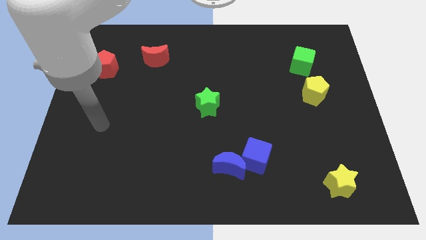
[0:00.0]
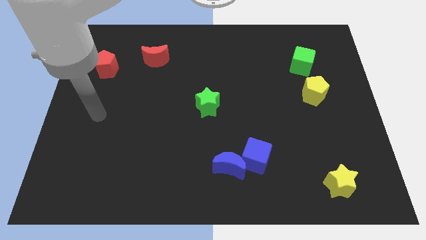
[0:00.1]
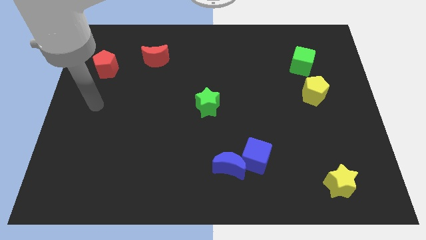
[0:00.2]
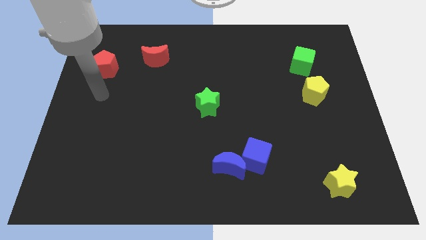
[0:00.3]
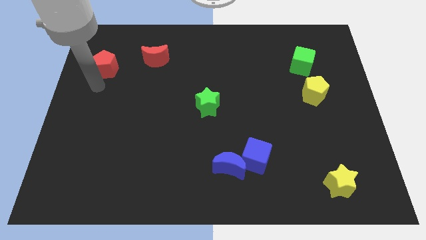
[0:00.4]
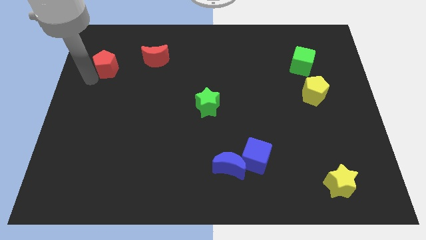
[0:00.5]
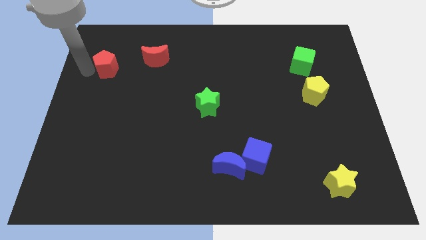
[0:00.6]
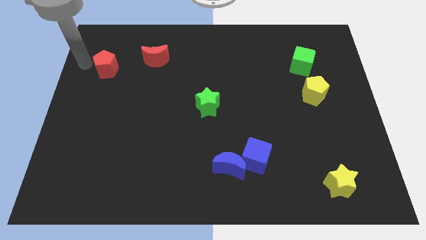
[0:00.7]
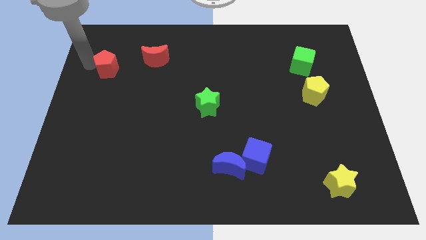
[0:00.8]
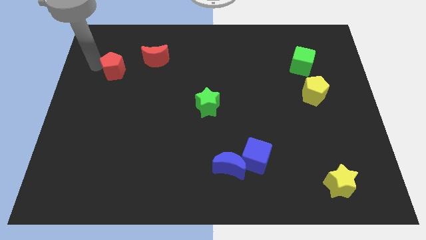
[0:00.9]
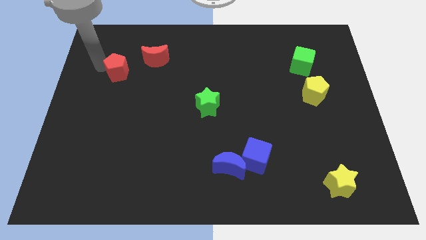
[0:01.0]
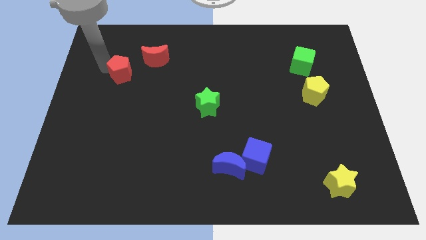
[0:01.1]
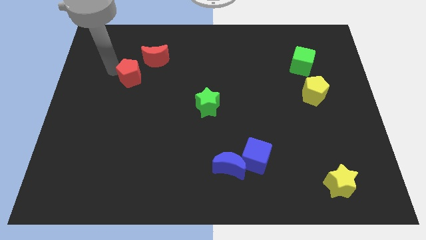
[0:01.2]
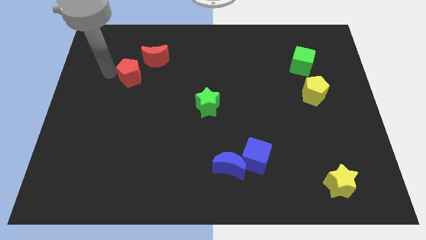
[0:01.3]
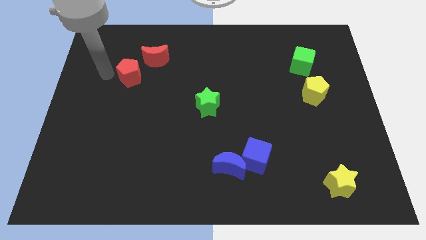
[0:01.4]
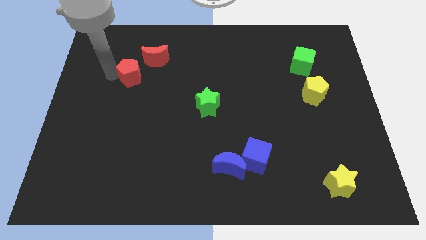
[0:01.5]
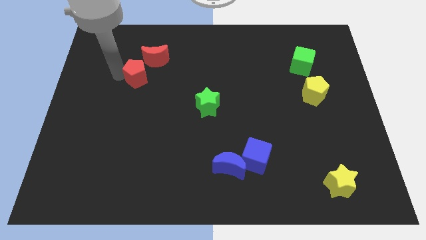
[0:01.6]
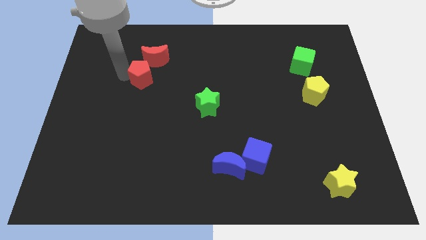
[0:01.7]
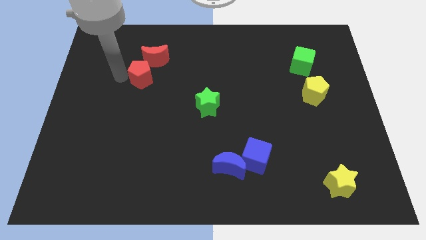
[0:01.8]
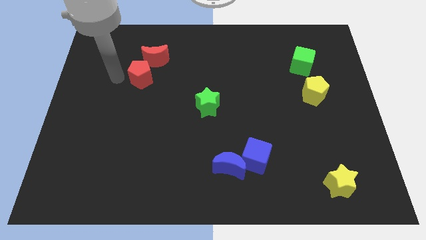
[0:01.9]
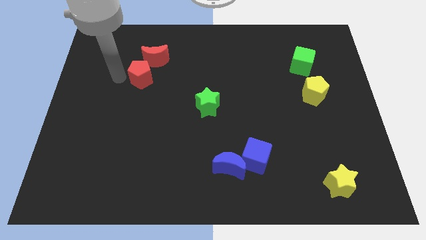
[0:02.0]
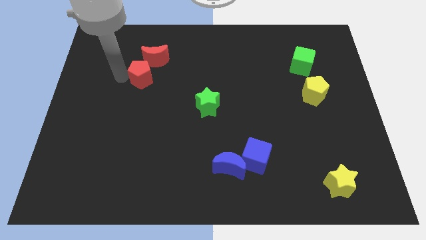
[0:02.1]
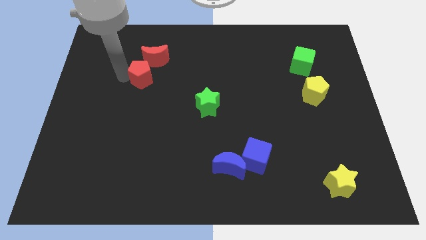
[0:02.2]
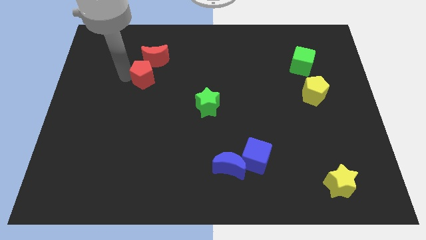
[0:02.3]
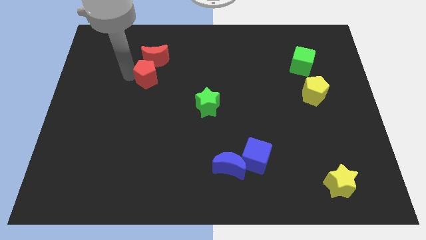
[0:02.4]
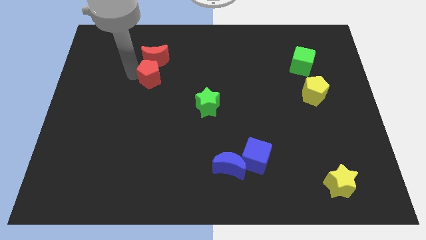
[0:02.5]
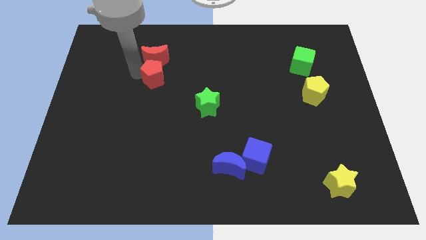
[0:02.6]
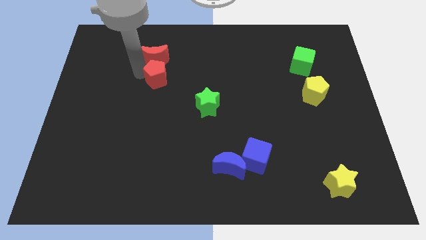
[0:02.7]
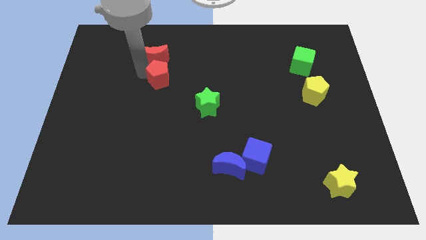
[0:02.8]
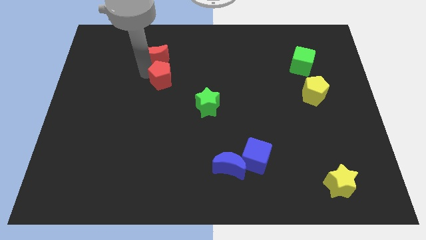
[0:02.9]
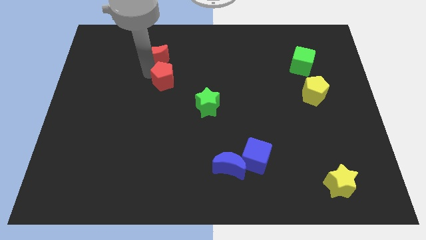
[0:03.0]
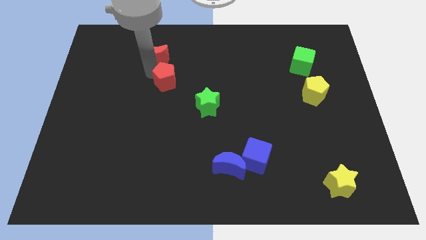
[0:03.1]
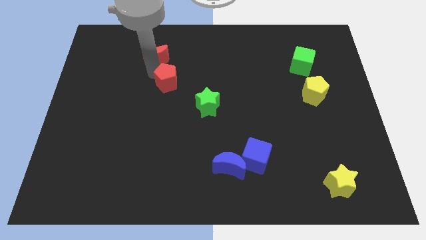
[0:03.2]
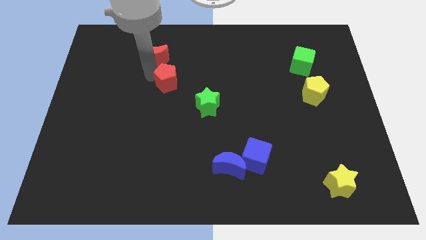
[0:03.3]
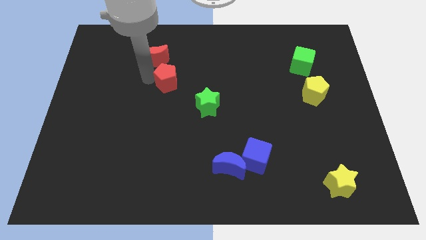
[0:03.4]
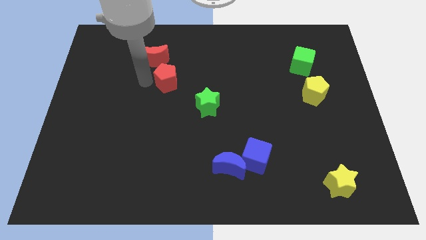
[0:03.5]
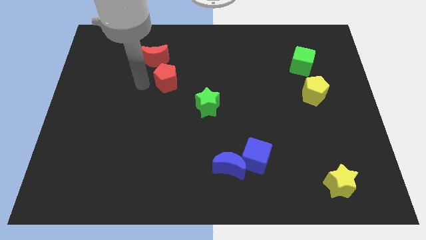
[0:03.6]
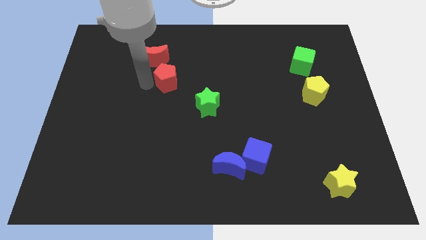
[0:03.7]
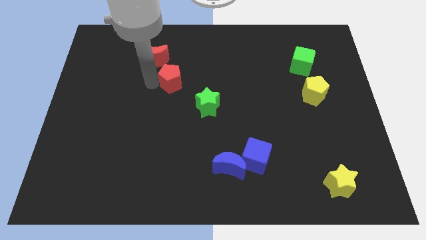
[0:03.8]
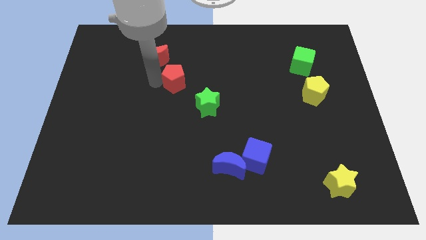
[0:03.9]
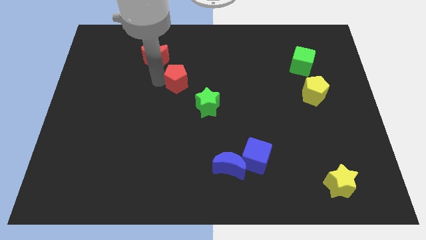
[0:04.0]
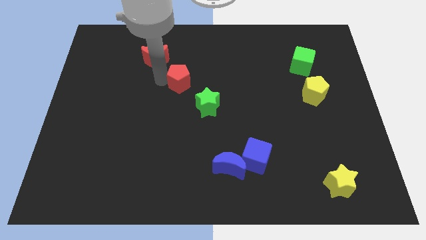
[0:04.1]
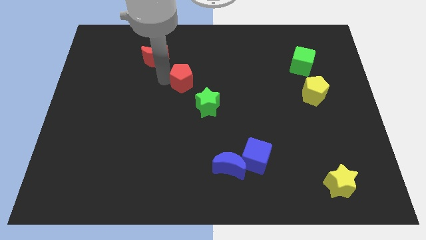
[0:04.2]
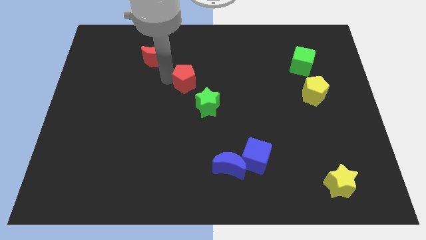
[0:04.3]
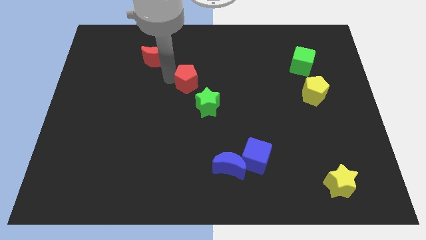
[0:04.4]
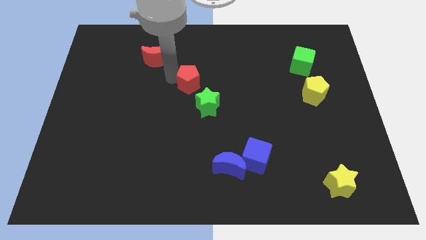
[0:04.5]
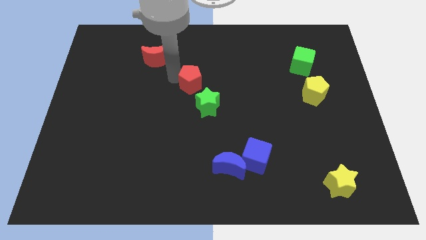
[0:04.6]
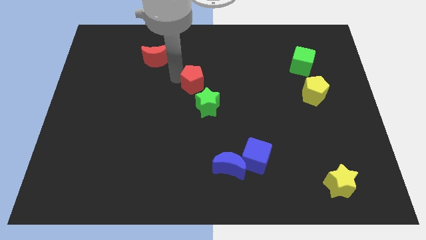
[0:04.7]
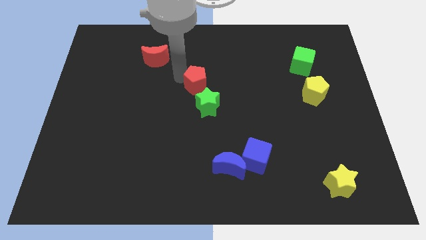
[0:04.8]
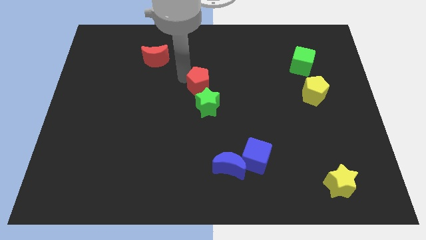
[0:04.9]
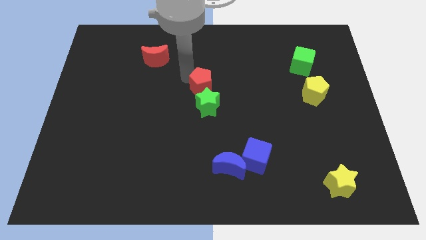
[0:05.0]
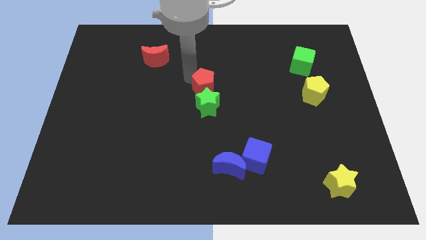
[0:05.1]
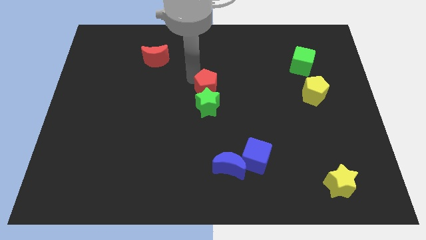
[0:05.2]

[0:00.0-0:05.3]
put the red pentagon diagonally up and to the right of the green star

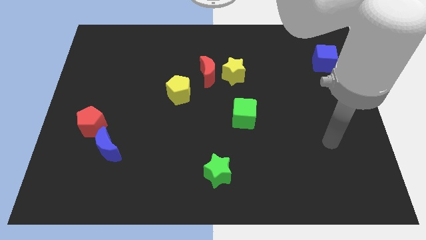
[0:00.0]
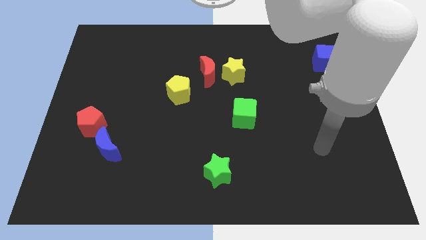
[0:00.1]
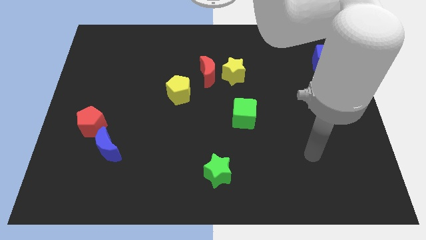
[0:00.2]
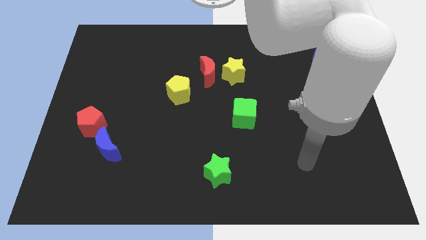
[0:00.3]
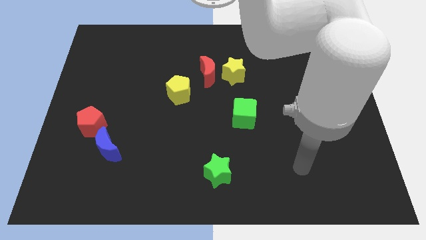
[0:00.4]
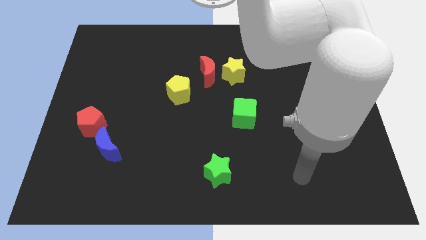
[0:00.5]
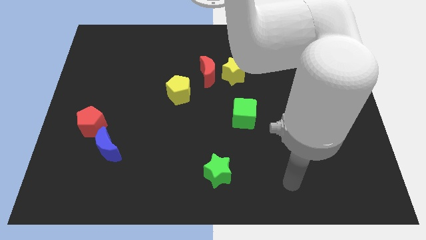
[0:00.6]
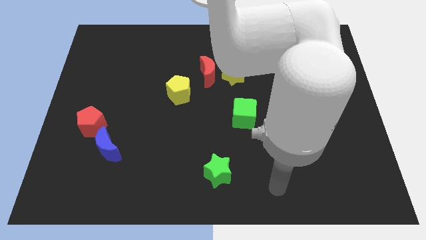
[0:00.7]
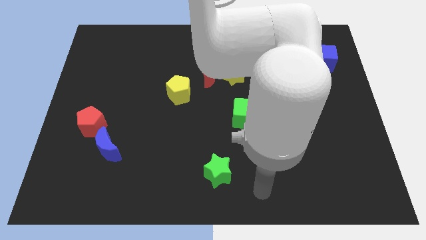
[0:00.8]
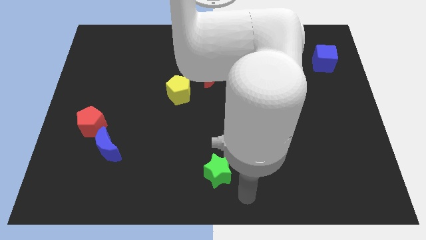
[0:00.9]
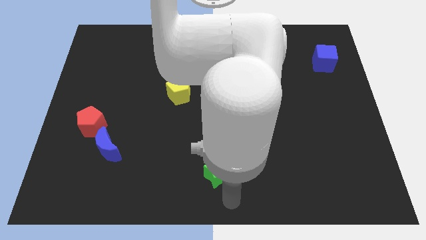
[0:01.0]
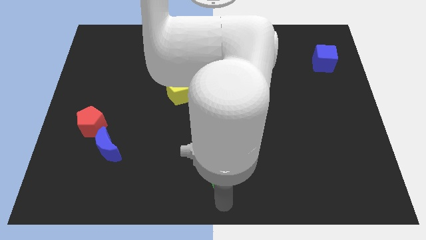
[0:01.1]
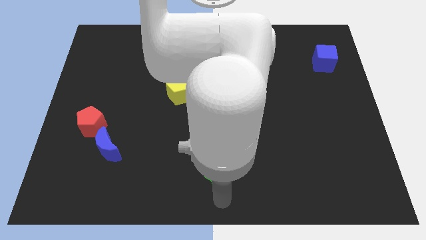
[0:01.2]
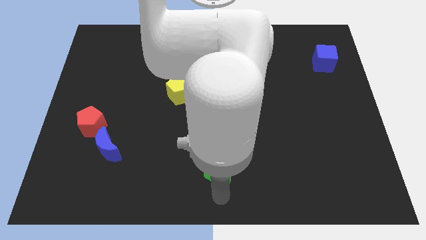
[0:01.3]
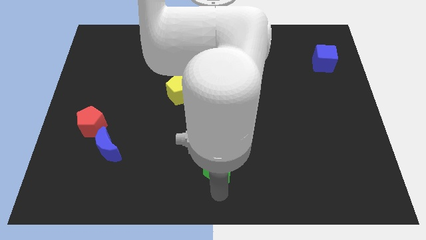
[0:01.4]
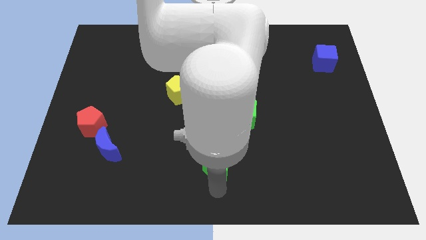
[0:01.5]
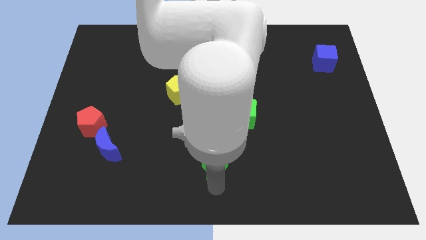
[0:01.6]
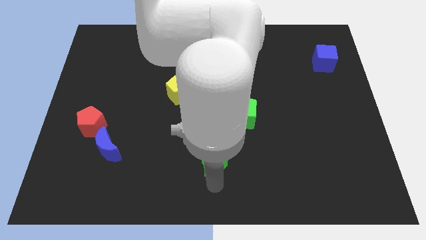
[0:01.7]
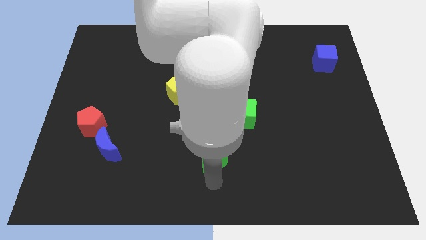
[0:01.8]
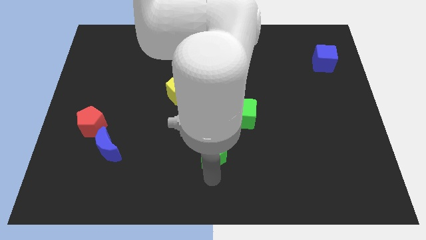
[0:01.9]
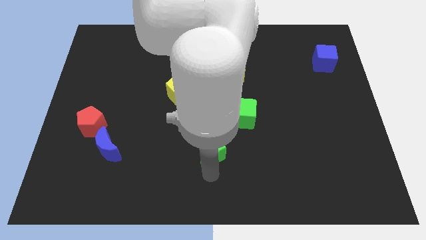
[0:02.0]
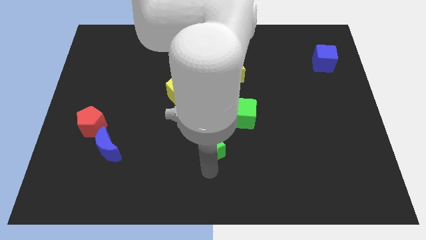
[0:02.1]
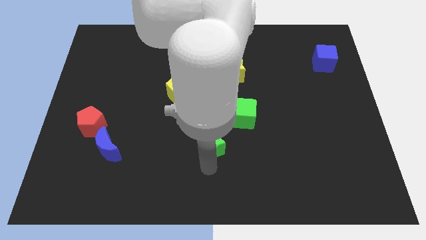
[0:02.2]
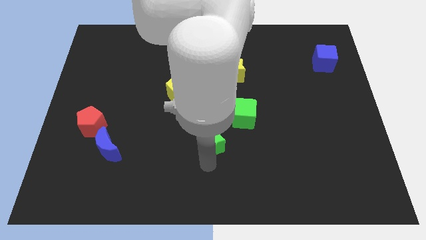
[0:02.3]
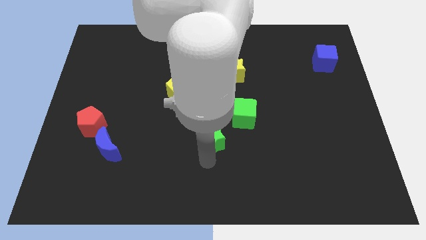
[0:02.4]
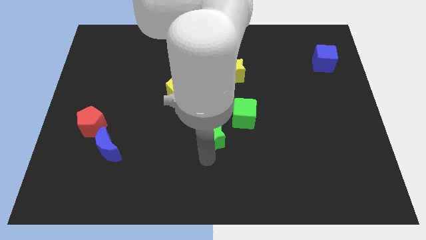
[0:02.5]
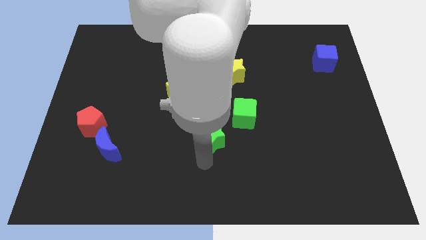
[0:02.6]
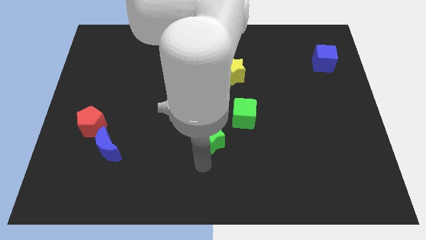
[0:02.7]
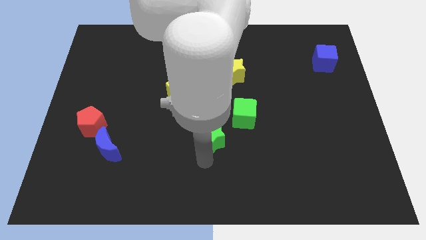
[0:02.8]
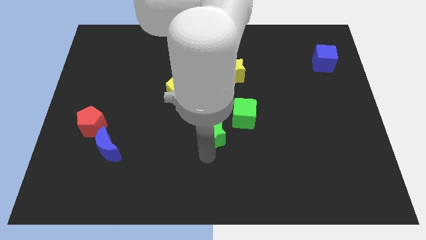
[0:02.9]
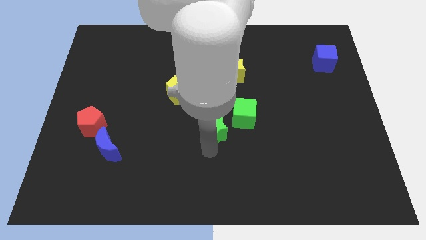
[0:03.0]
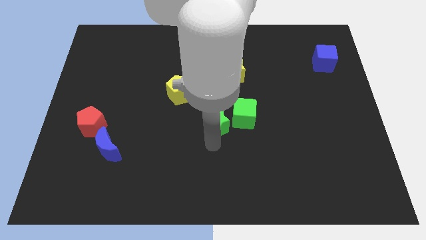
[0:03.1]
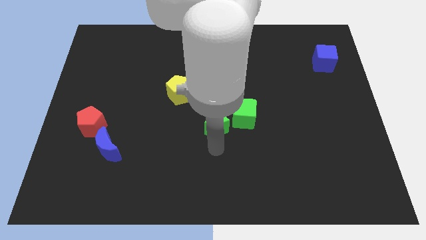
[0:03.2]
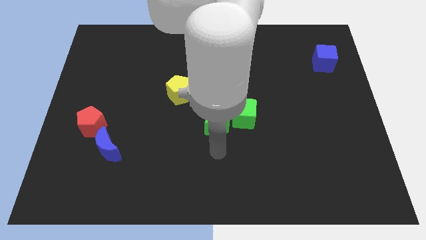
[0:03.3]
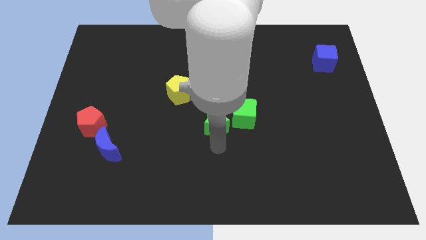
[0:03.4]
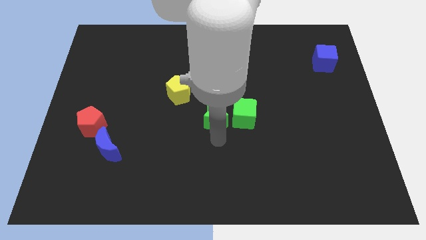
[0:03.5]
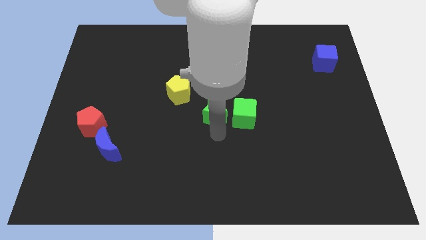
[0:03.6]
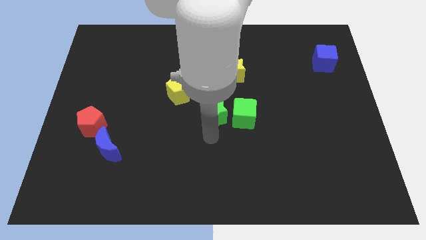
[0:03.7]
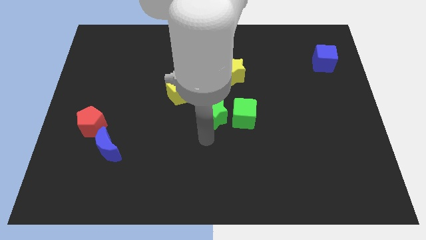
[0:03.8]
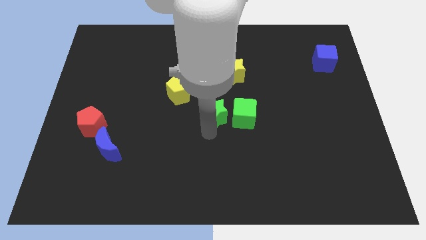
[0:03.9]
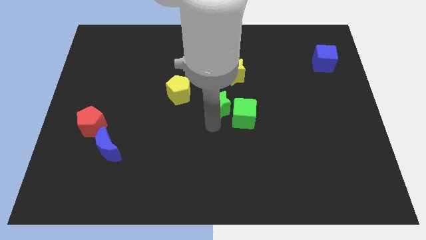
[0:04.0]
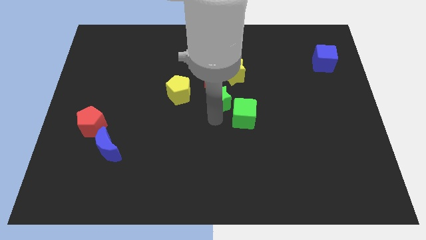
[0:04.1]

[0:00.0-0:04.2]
put the green star to the bottom right side of the red moon
